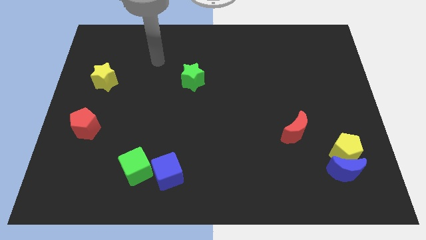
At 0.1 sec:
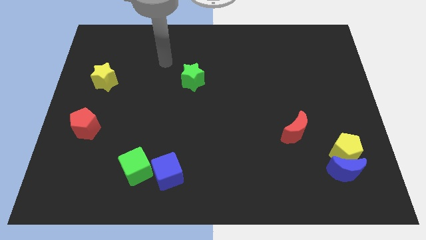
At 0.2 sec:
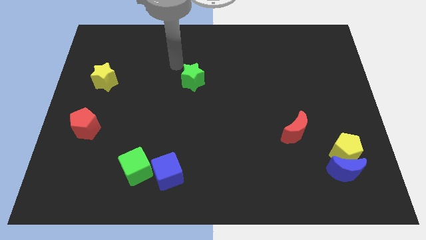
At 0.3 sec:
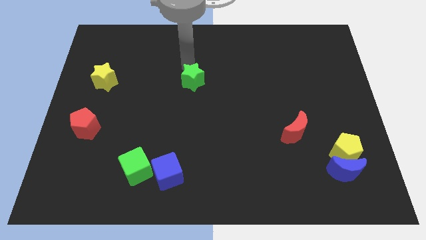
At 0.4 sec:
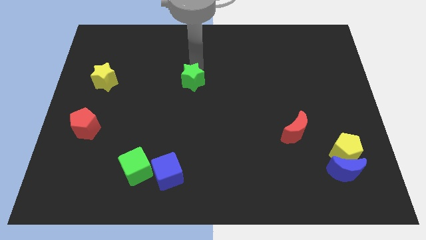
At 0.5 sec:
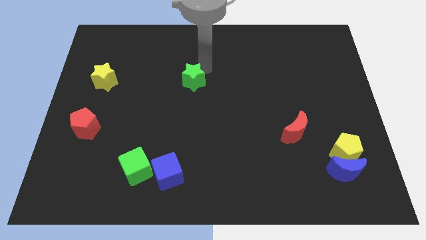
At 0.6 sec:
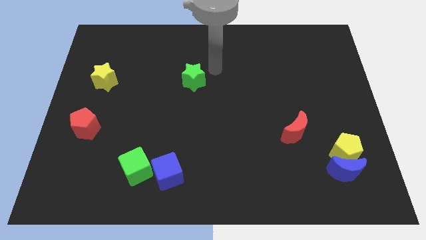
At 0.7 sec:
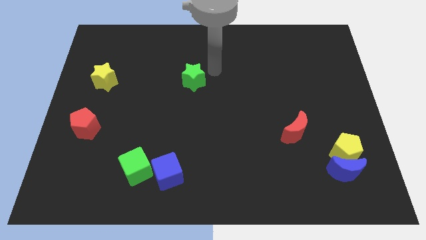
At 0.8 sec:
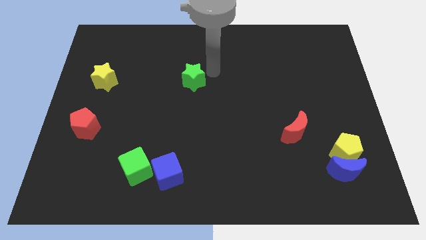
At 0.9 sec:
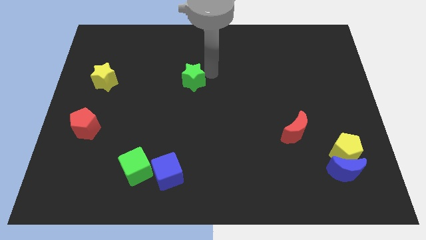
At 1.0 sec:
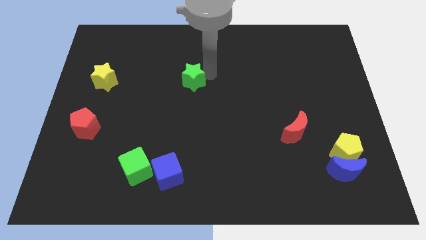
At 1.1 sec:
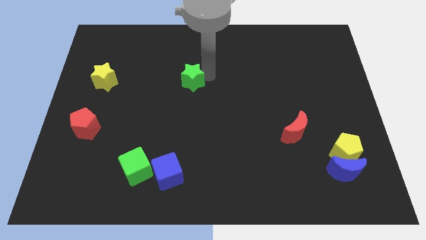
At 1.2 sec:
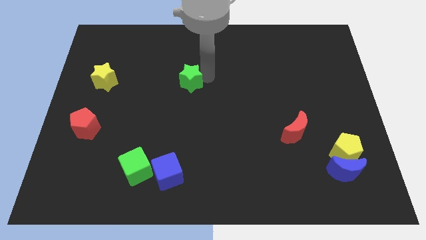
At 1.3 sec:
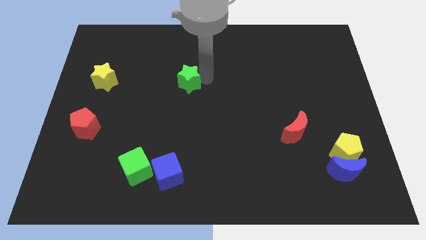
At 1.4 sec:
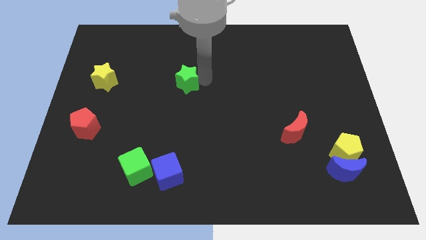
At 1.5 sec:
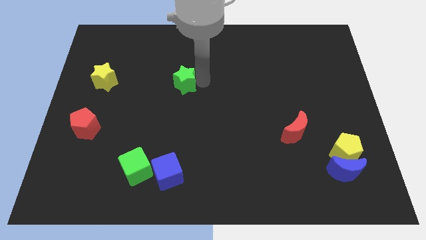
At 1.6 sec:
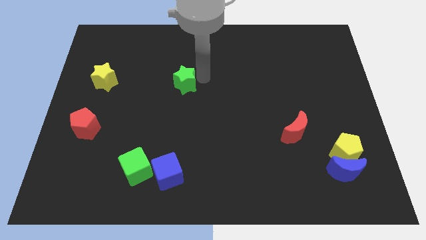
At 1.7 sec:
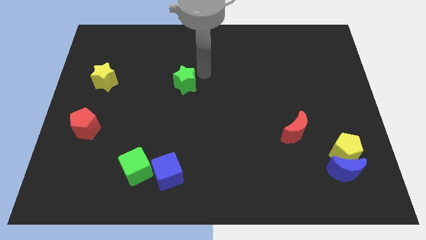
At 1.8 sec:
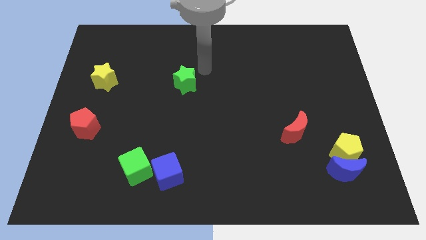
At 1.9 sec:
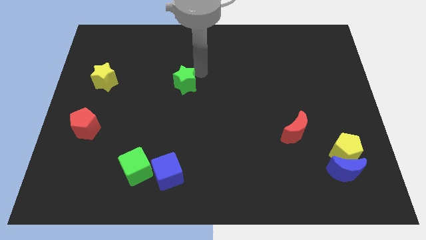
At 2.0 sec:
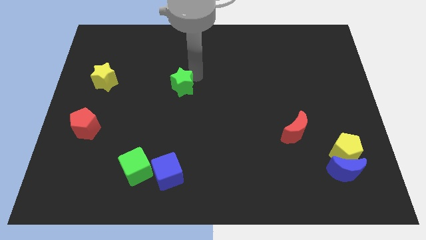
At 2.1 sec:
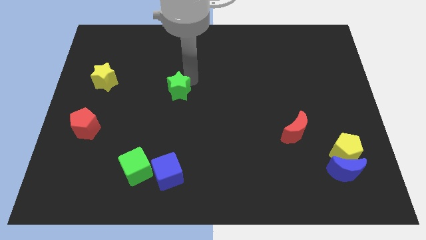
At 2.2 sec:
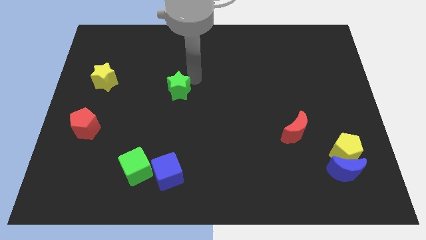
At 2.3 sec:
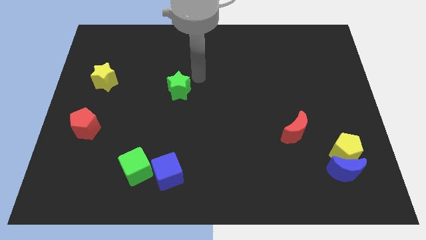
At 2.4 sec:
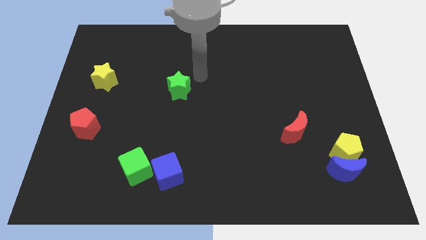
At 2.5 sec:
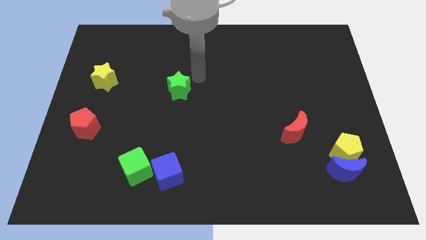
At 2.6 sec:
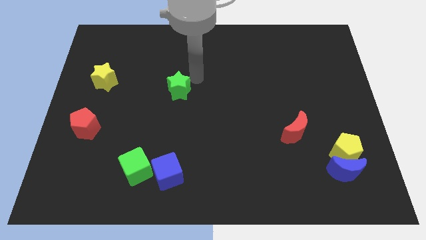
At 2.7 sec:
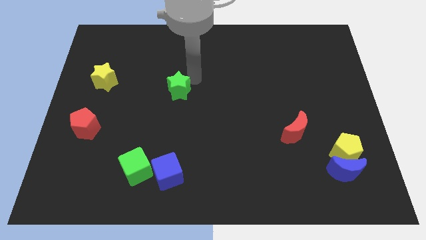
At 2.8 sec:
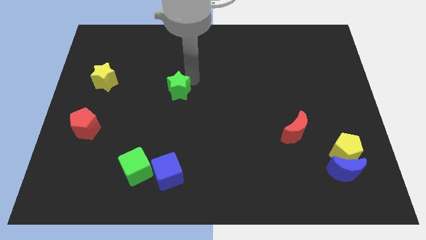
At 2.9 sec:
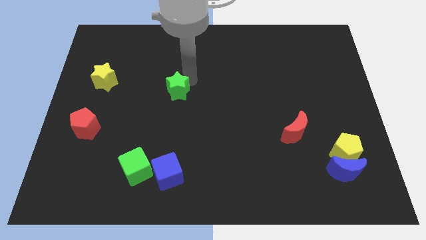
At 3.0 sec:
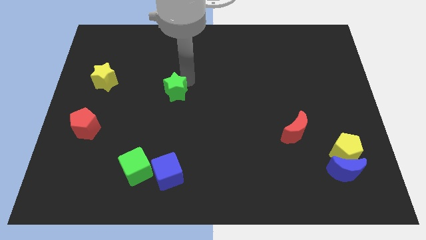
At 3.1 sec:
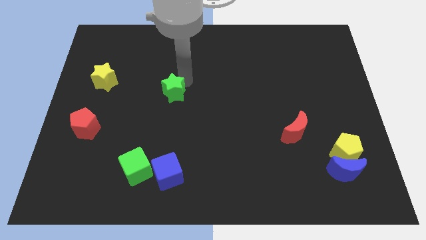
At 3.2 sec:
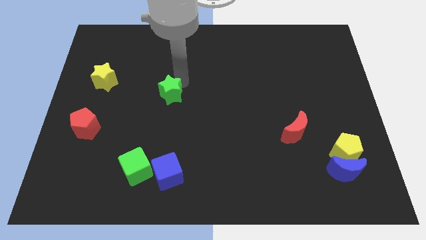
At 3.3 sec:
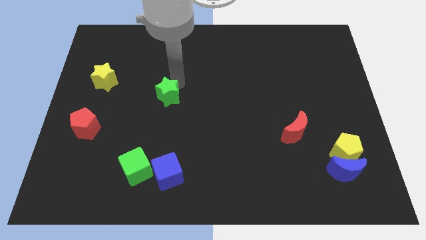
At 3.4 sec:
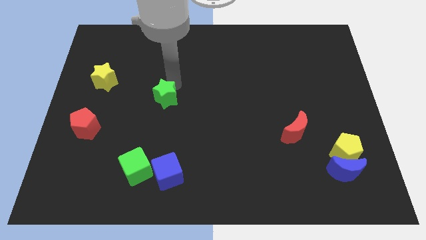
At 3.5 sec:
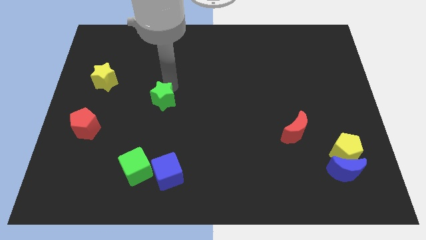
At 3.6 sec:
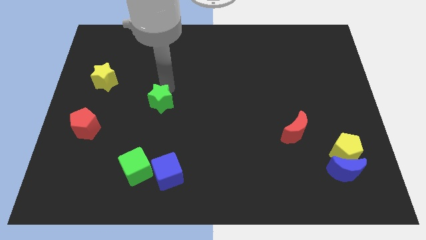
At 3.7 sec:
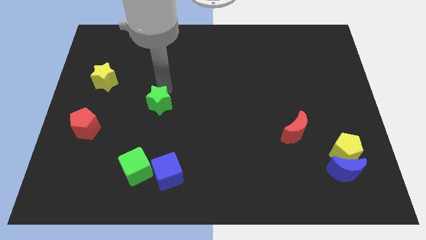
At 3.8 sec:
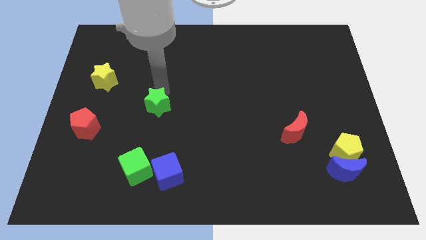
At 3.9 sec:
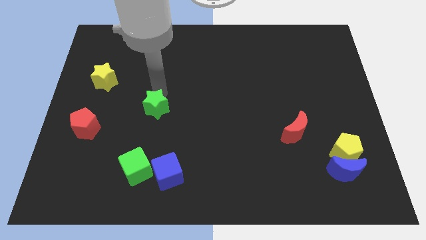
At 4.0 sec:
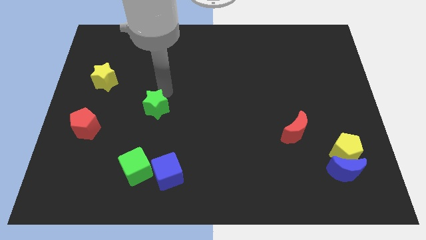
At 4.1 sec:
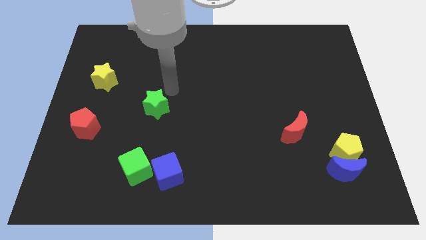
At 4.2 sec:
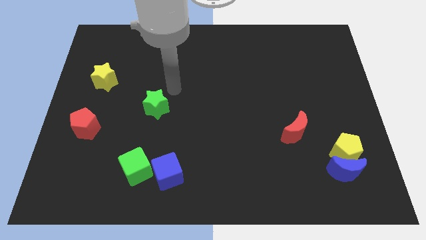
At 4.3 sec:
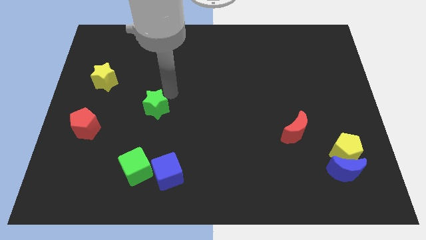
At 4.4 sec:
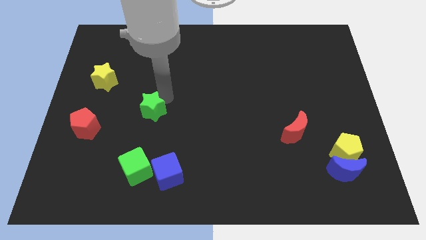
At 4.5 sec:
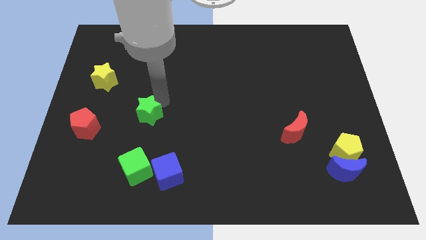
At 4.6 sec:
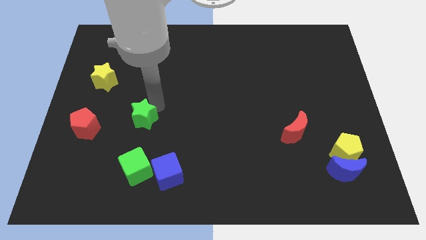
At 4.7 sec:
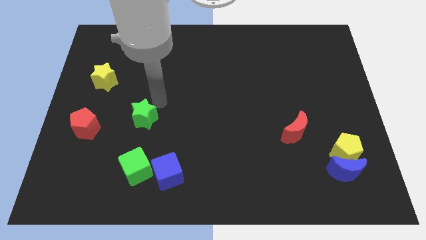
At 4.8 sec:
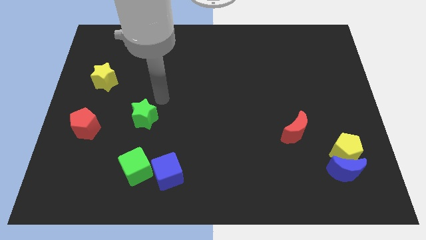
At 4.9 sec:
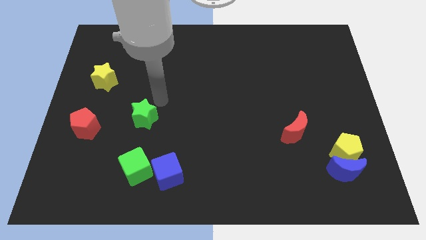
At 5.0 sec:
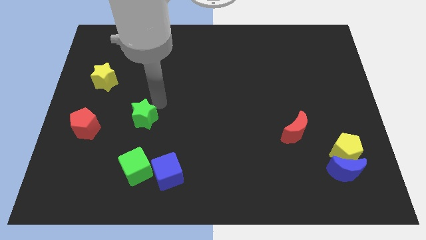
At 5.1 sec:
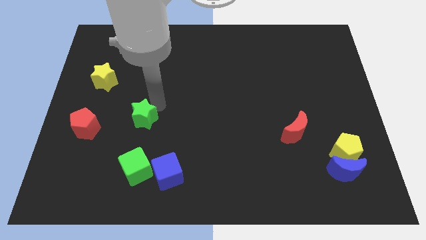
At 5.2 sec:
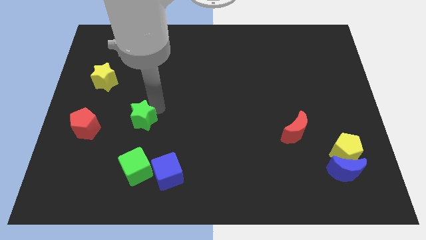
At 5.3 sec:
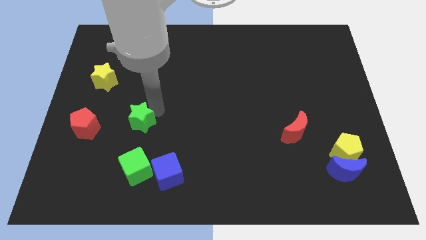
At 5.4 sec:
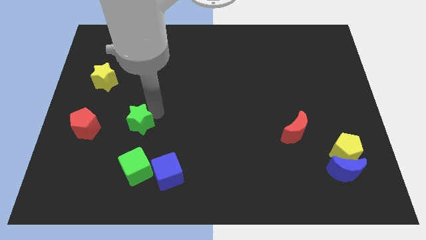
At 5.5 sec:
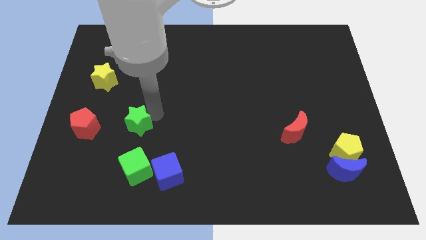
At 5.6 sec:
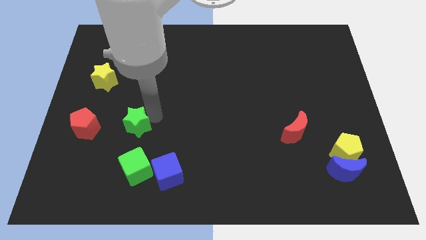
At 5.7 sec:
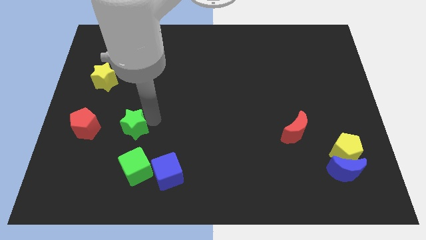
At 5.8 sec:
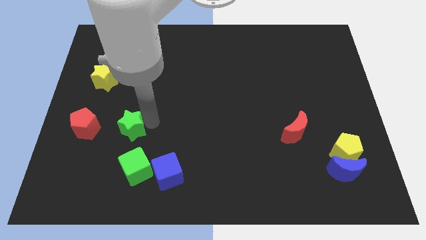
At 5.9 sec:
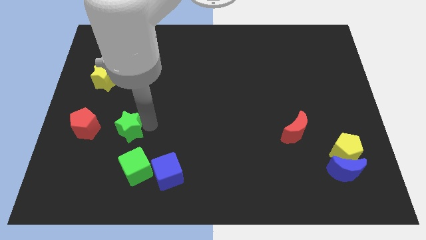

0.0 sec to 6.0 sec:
push the green star diagonally down and left

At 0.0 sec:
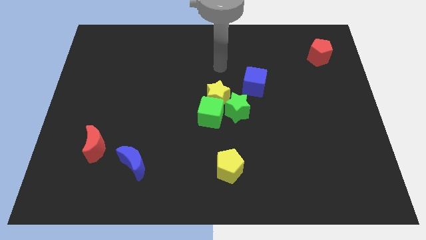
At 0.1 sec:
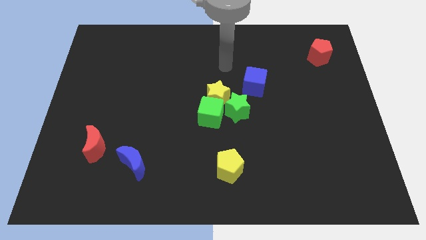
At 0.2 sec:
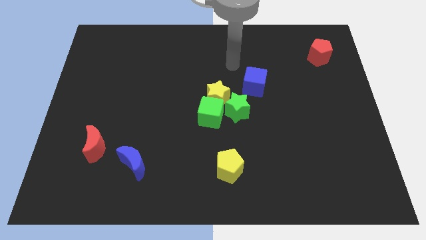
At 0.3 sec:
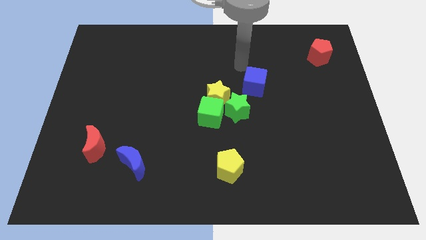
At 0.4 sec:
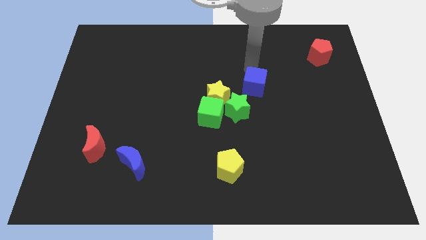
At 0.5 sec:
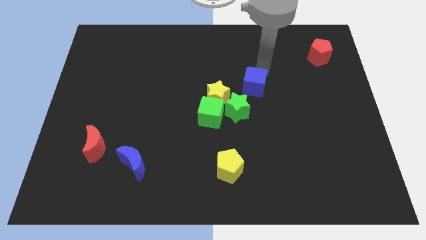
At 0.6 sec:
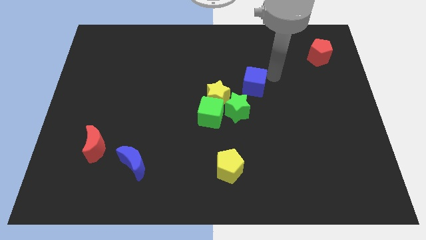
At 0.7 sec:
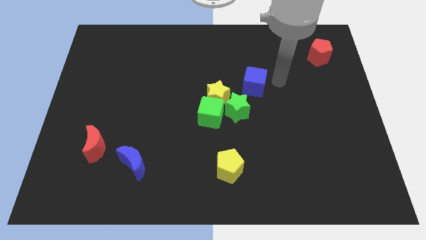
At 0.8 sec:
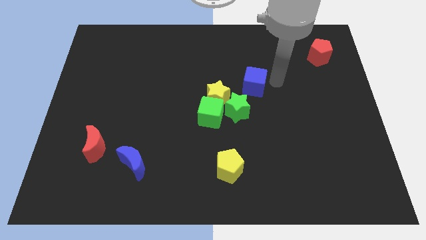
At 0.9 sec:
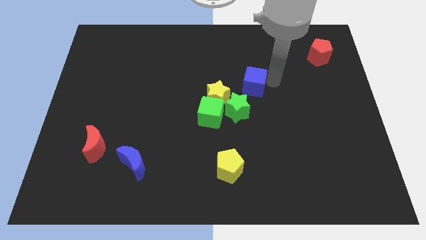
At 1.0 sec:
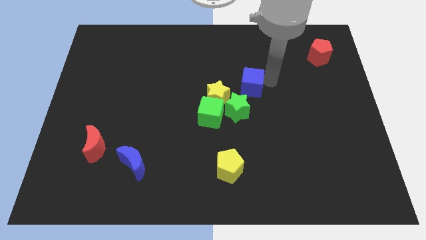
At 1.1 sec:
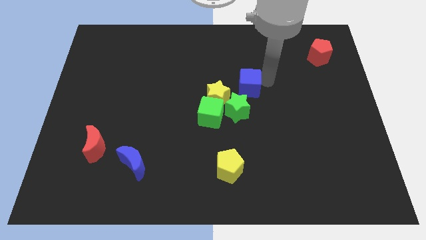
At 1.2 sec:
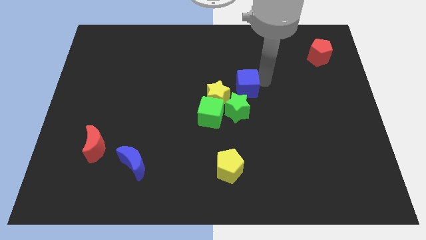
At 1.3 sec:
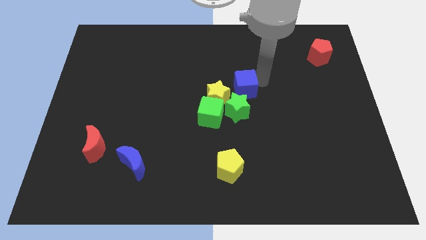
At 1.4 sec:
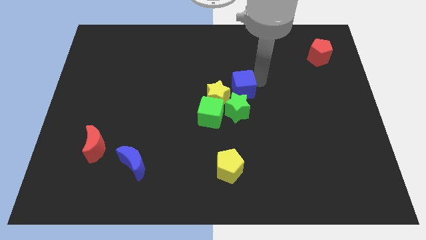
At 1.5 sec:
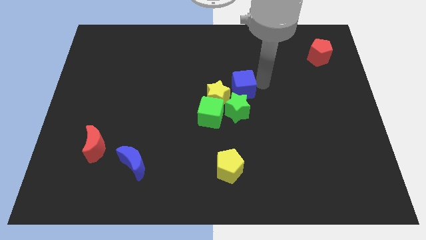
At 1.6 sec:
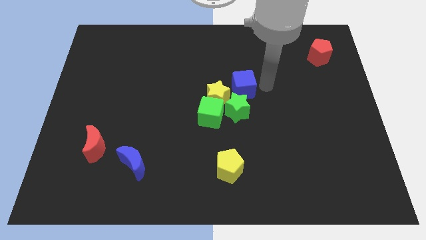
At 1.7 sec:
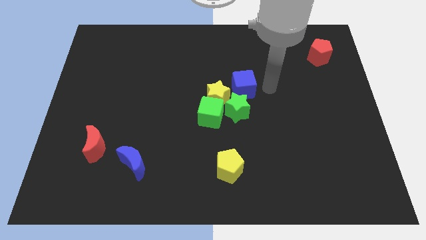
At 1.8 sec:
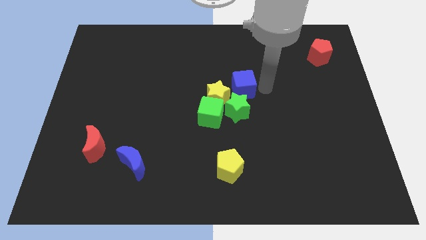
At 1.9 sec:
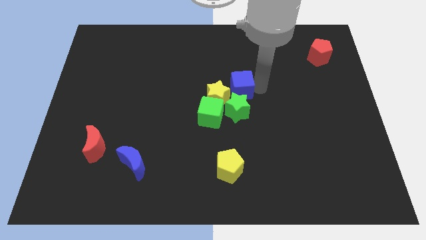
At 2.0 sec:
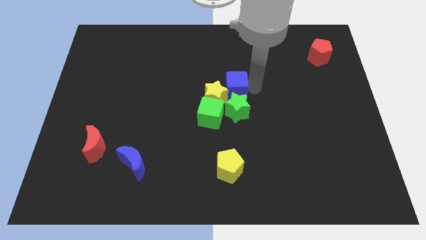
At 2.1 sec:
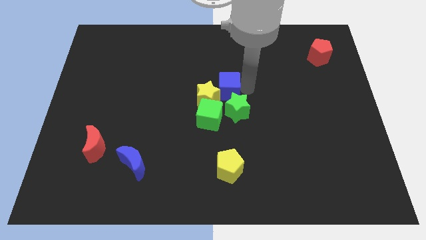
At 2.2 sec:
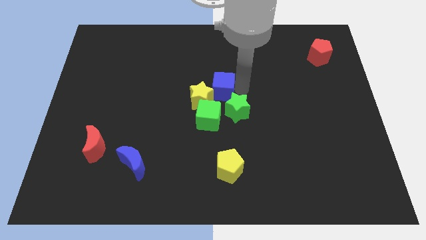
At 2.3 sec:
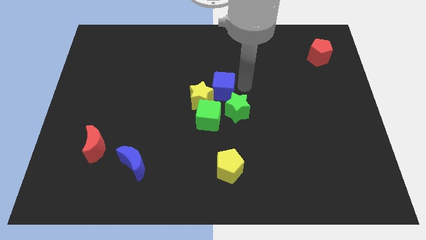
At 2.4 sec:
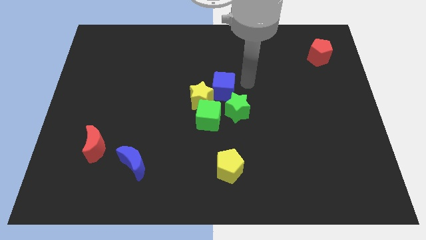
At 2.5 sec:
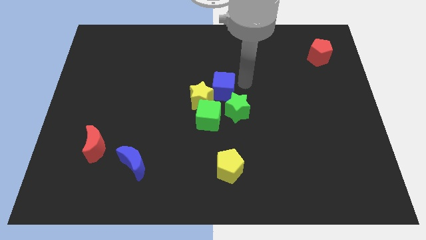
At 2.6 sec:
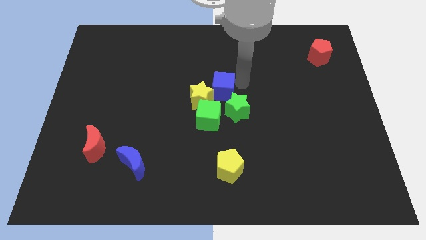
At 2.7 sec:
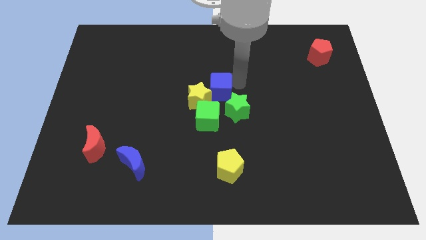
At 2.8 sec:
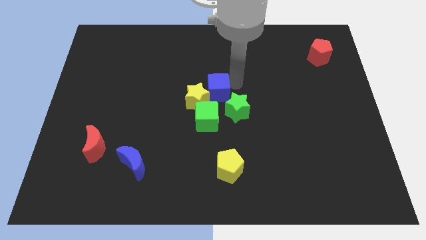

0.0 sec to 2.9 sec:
move the blue cube a bit diagonally down and left
